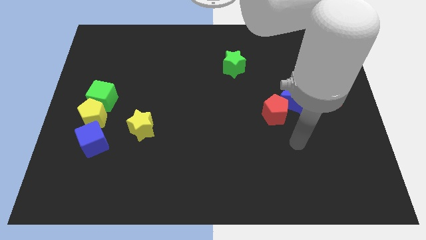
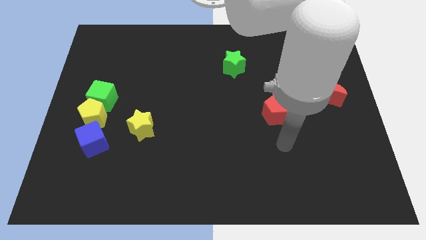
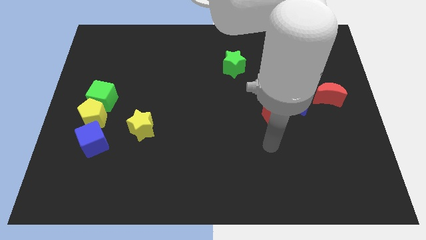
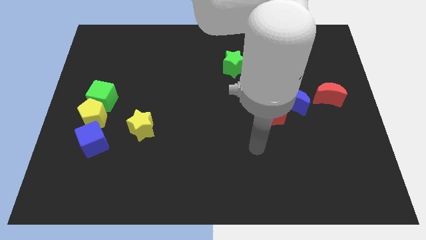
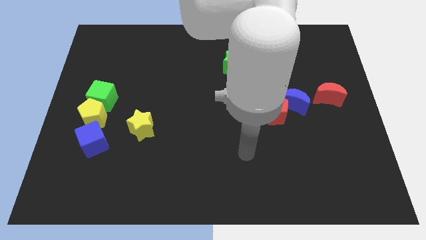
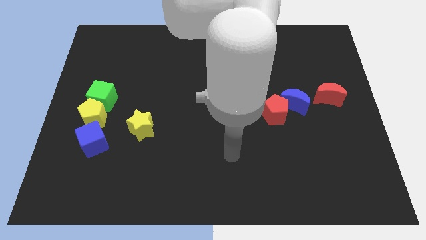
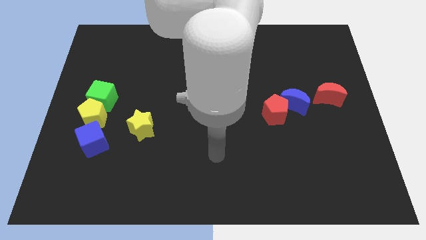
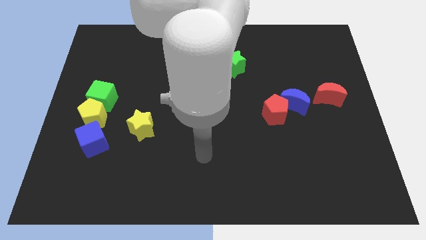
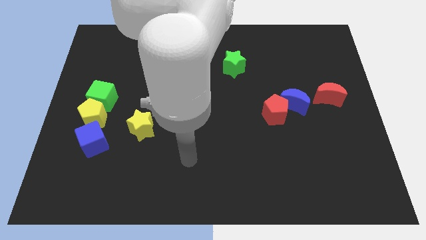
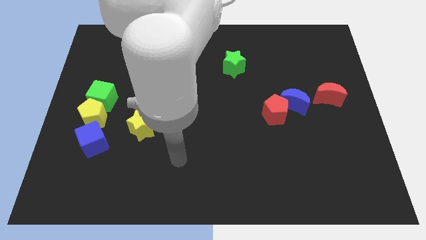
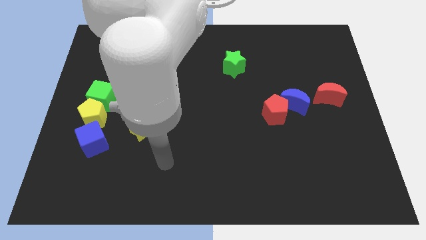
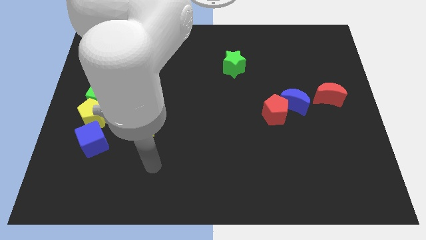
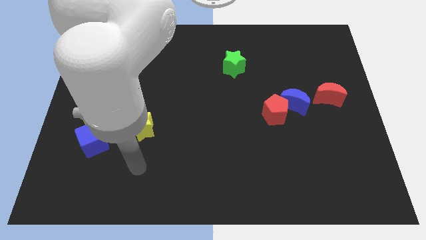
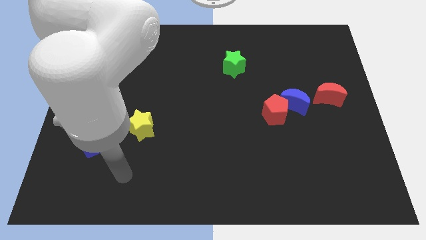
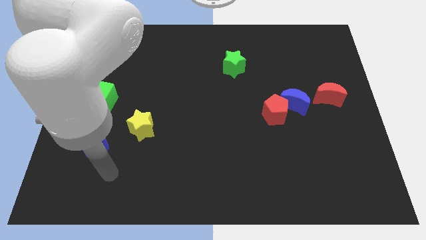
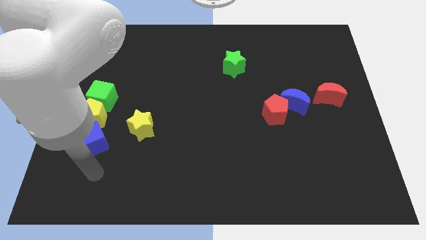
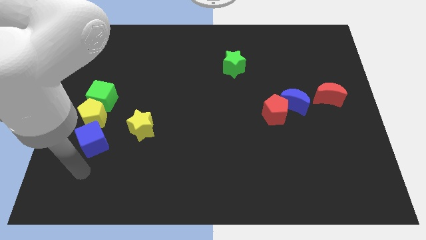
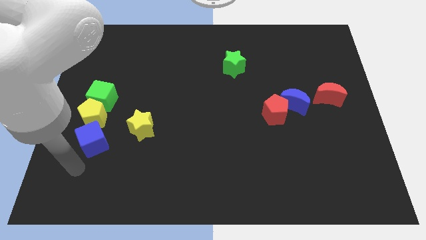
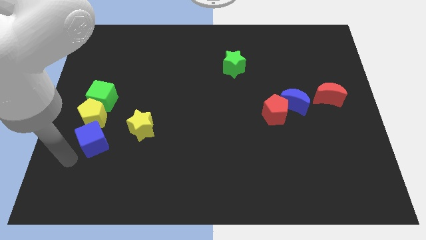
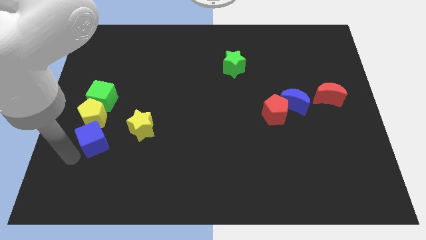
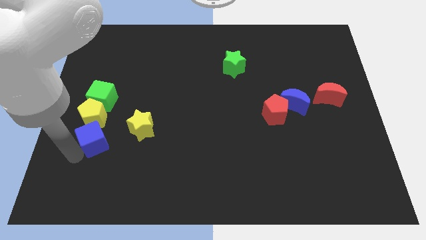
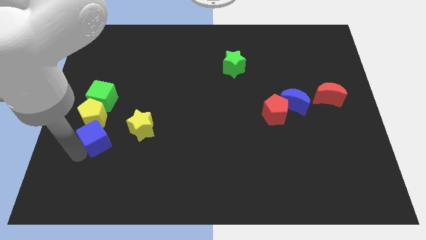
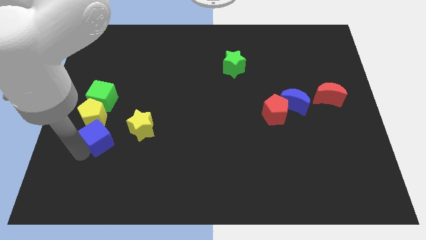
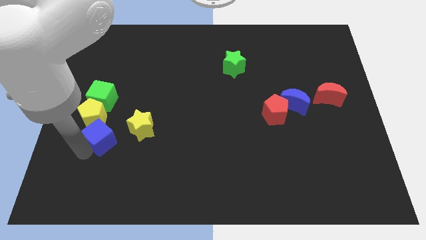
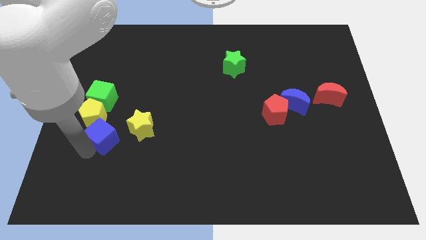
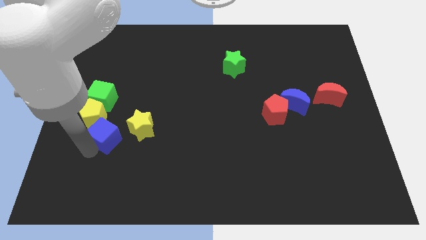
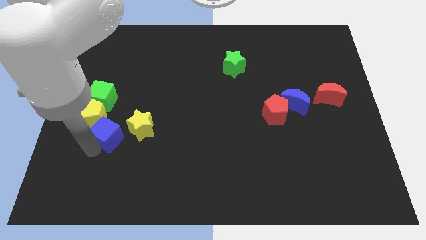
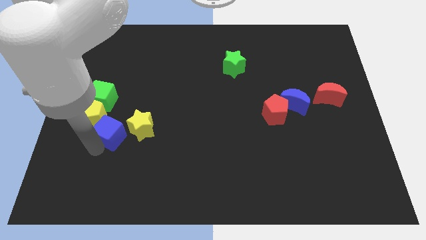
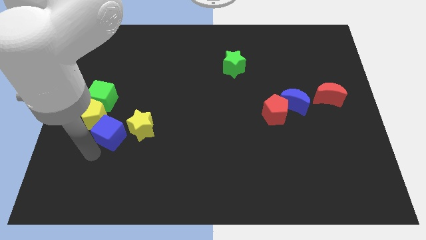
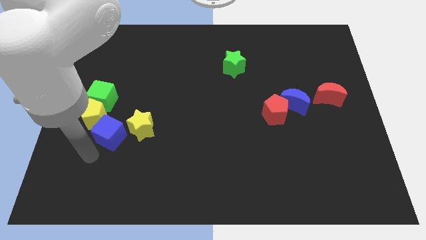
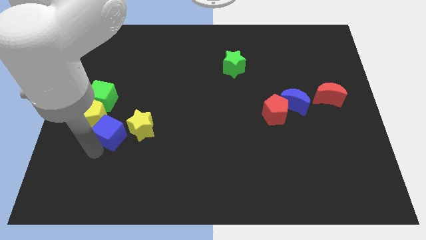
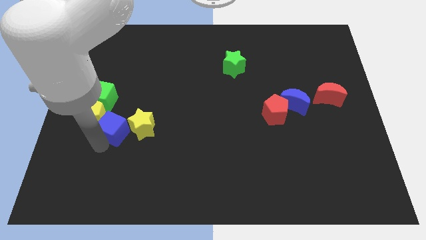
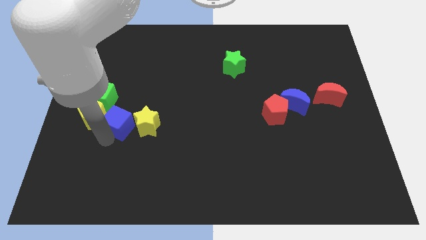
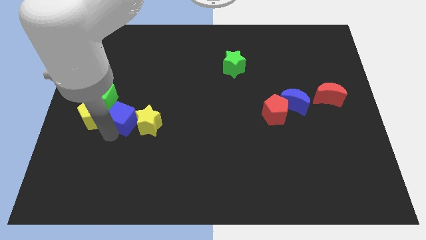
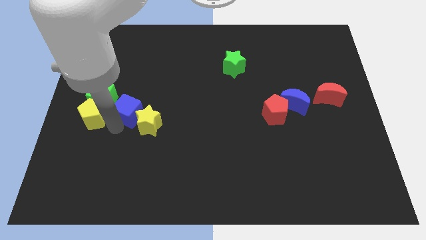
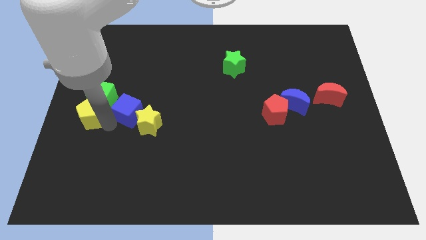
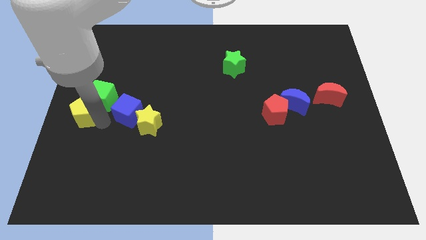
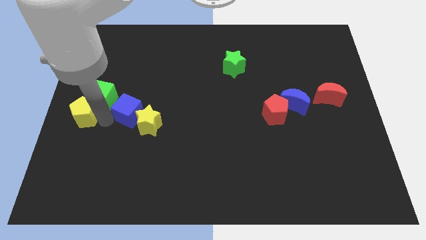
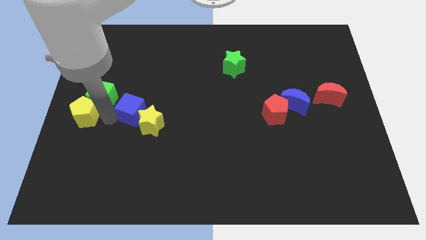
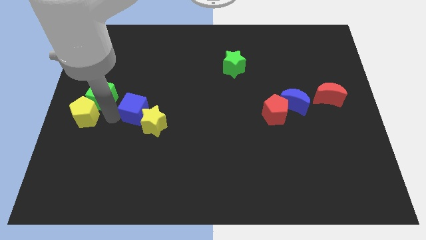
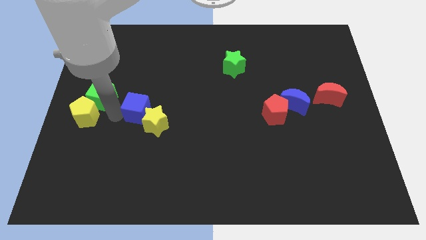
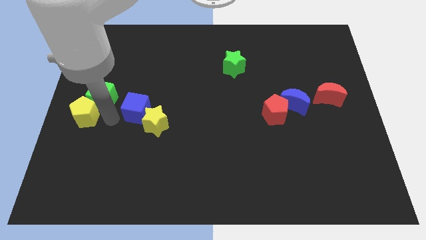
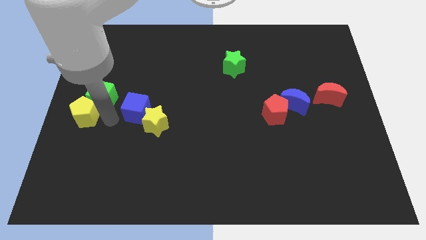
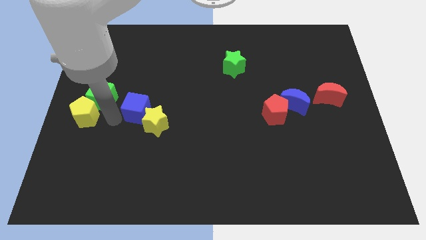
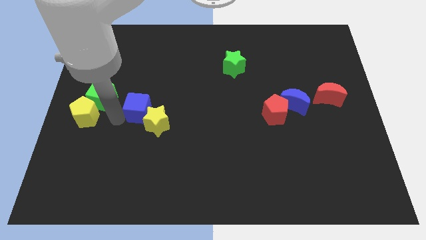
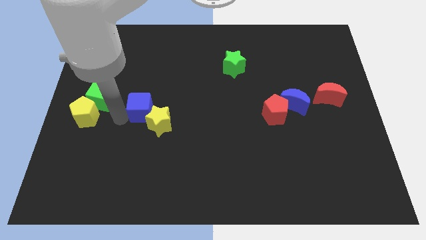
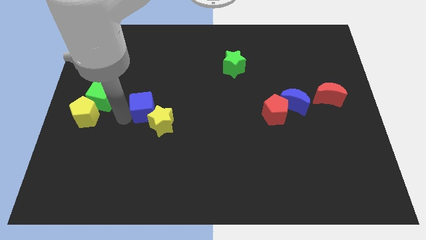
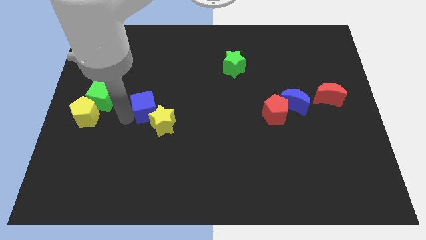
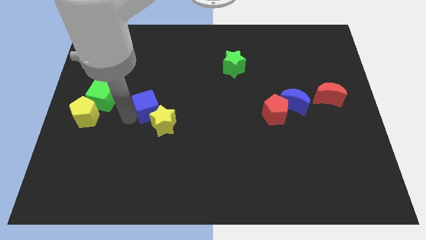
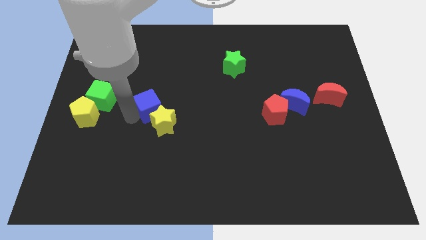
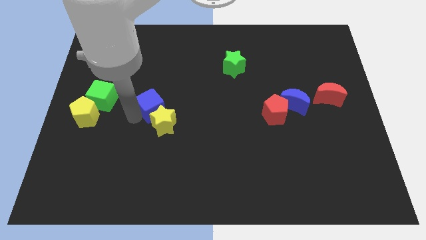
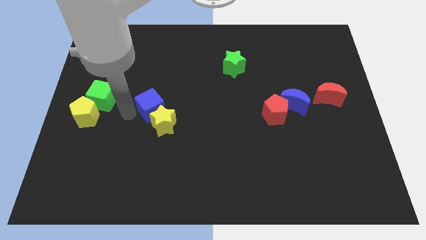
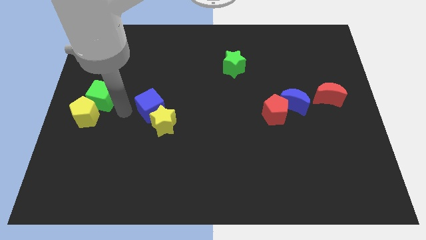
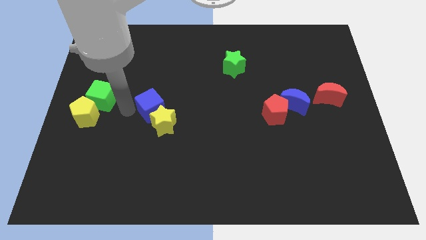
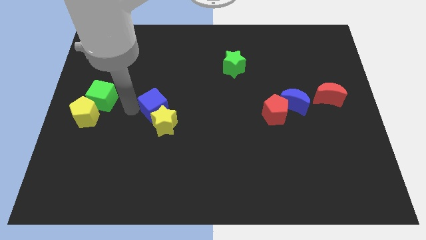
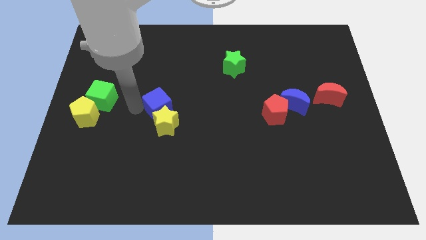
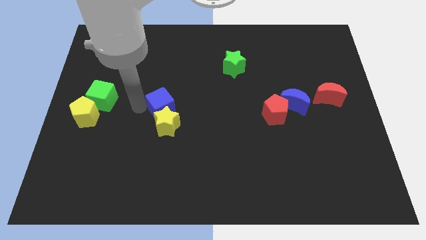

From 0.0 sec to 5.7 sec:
slide the blue cube to the middle
